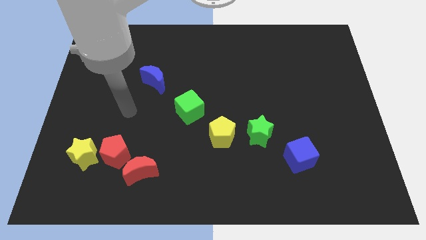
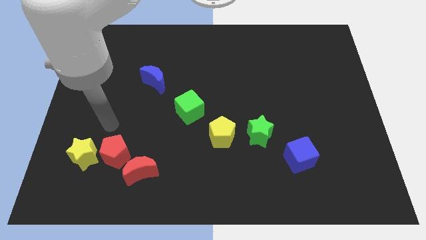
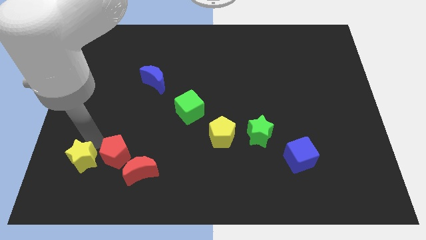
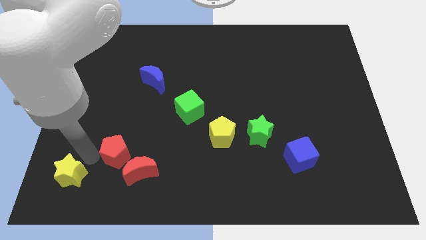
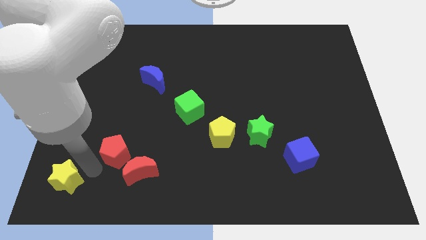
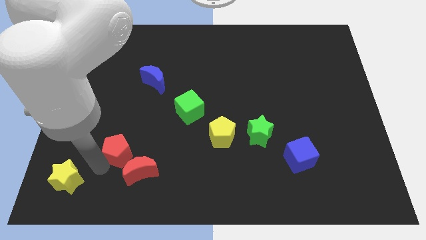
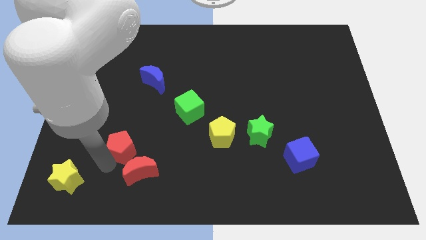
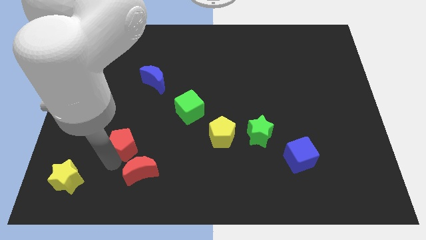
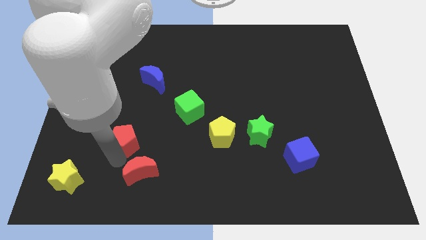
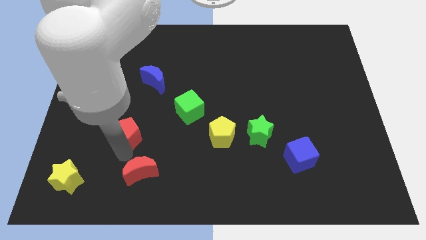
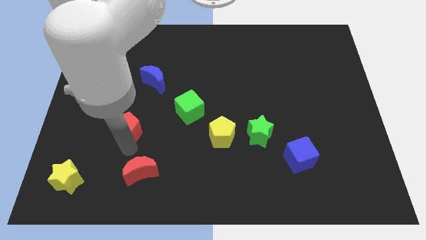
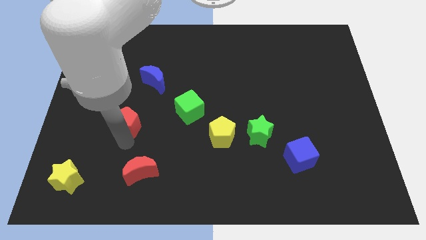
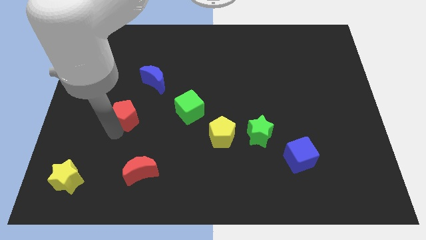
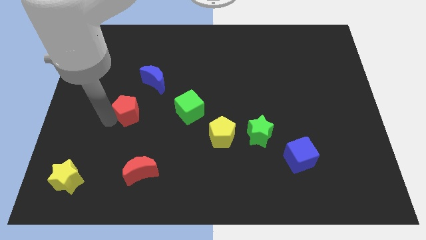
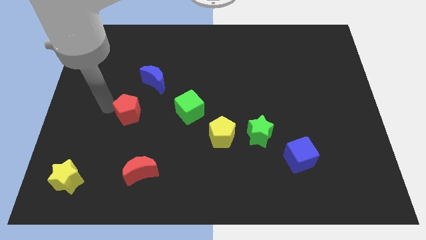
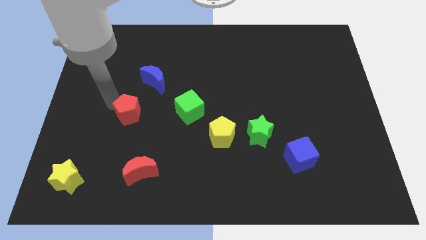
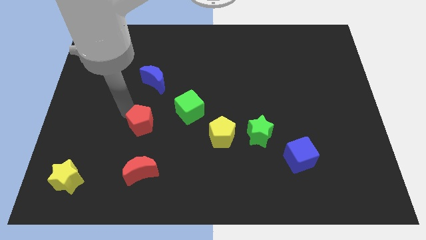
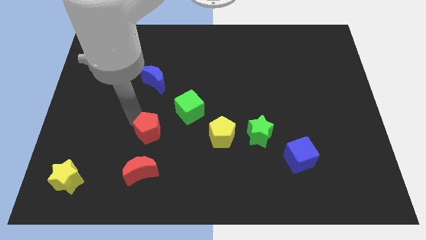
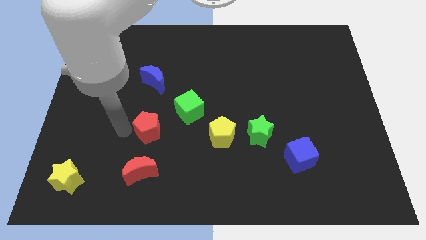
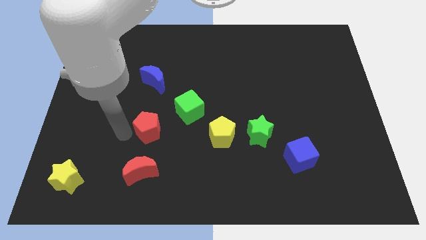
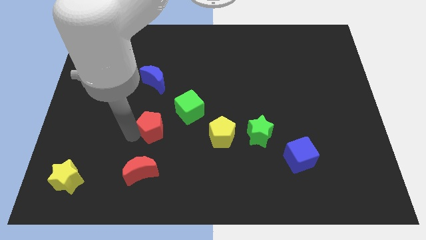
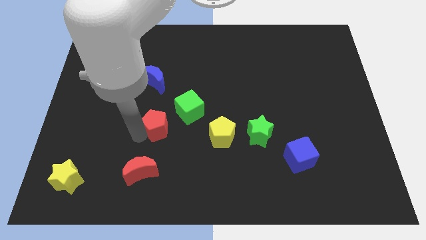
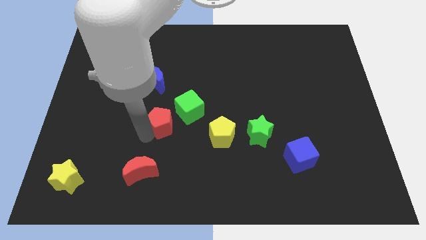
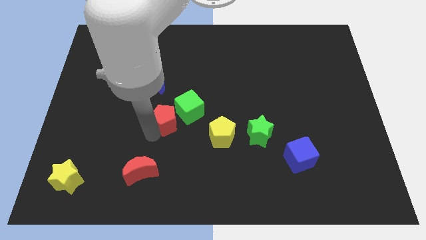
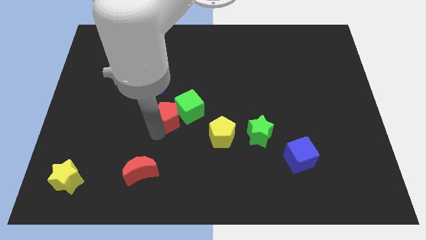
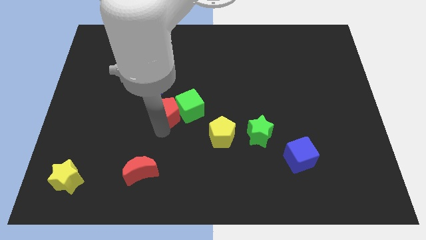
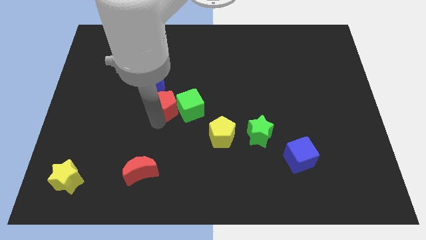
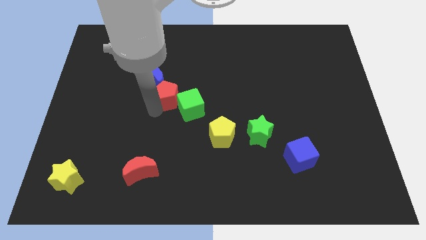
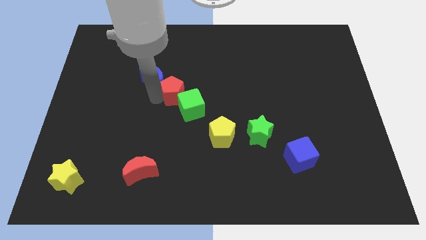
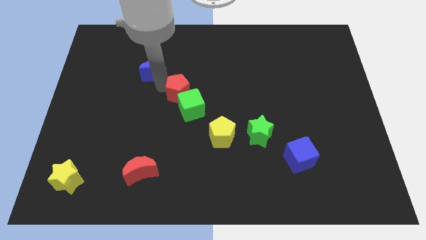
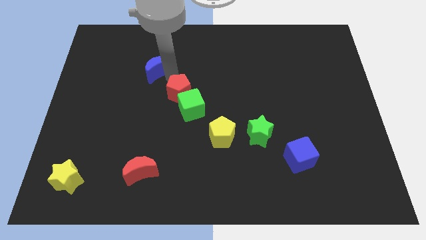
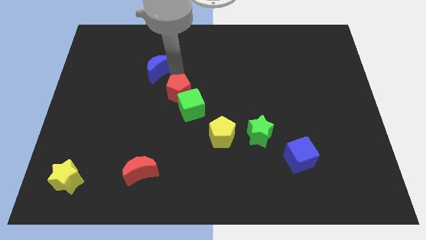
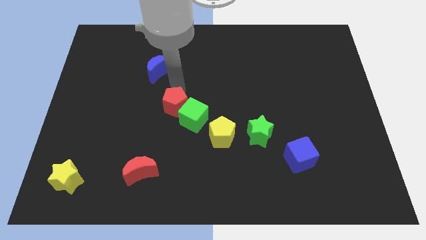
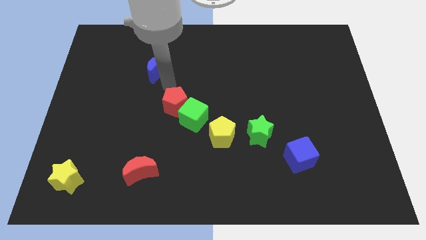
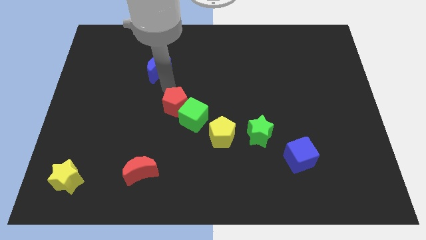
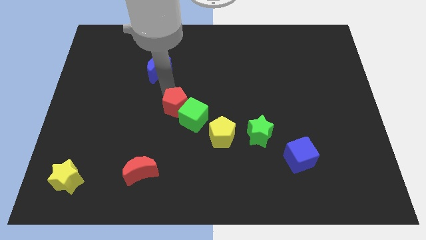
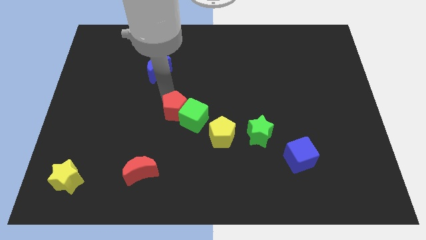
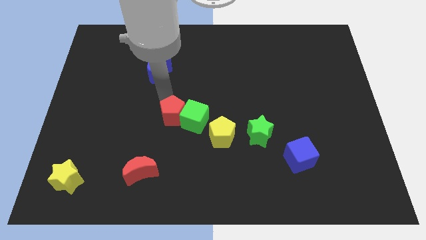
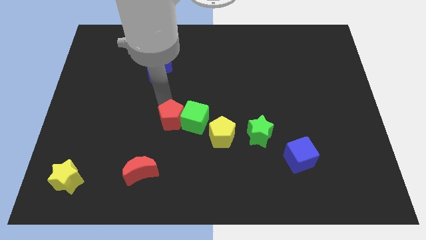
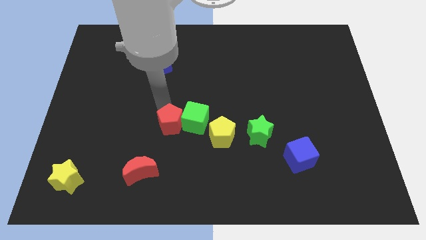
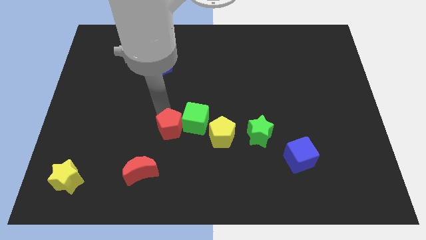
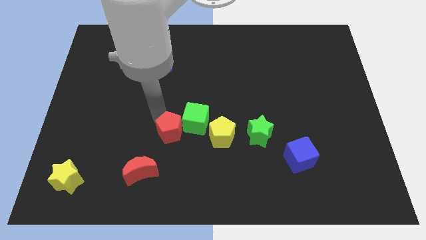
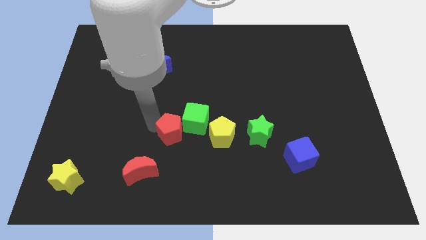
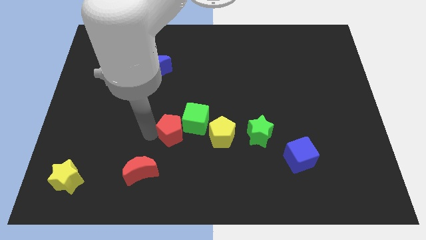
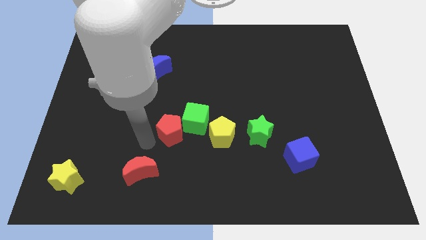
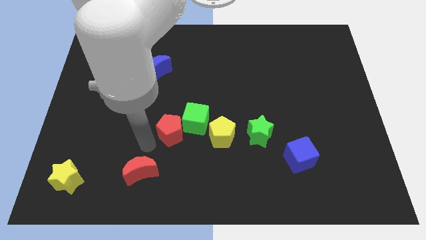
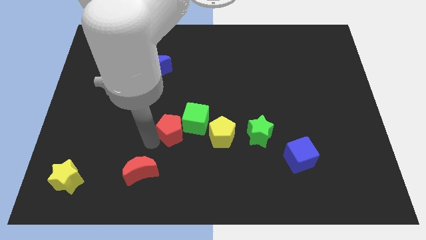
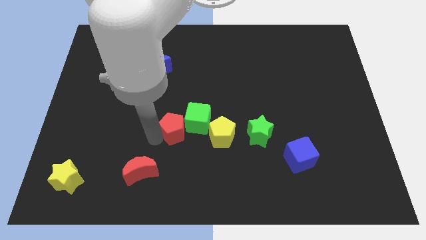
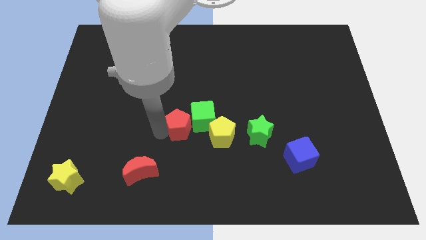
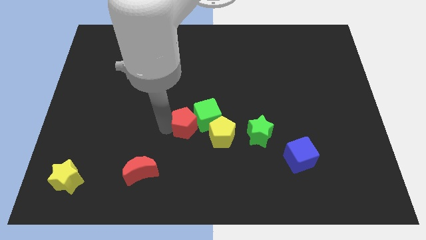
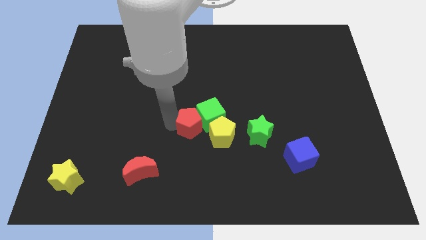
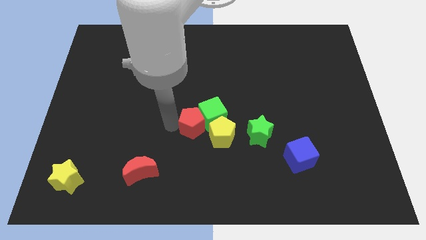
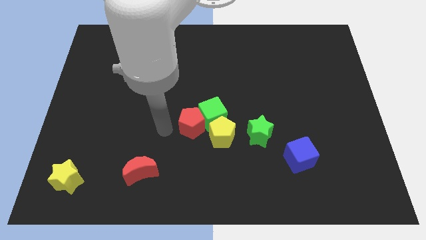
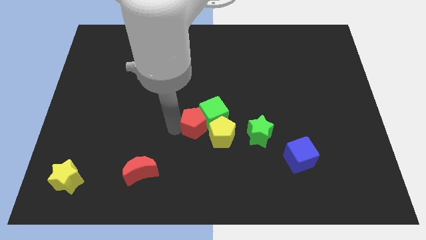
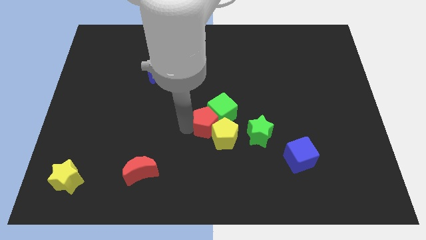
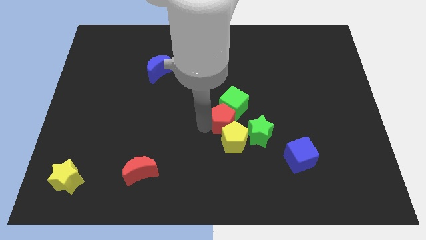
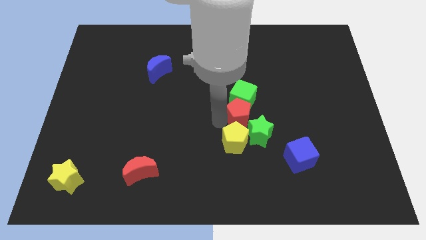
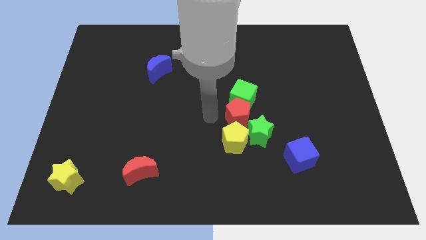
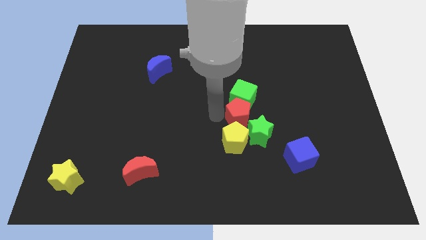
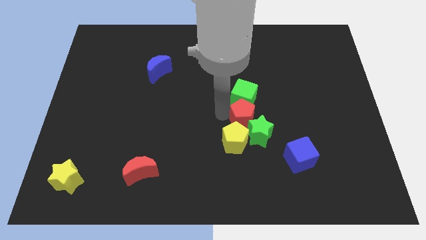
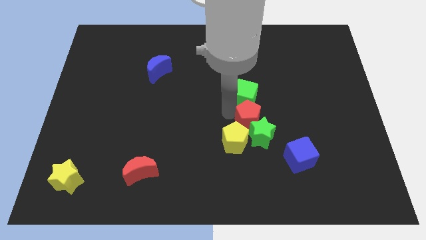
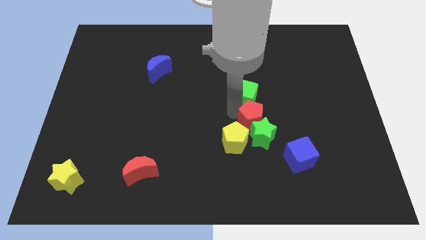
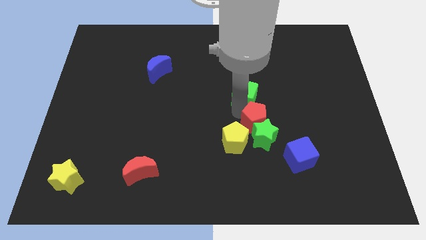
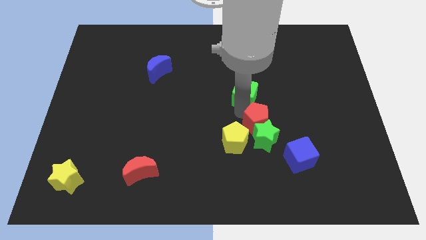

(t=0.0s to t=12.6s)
push the red pentagon to the top right side of the green star

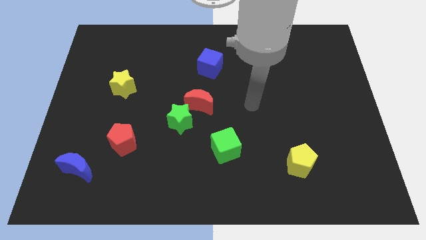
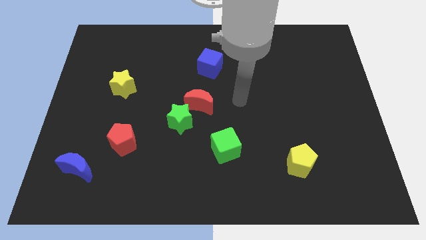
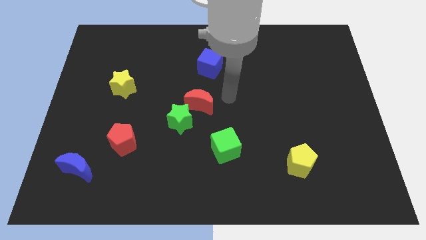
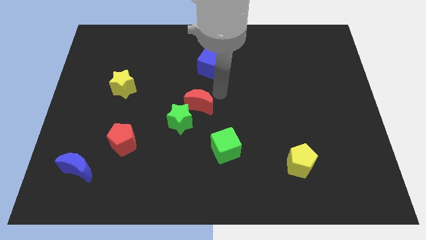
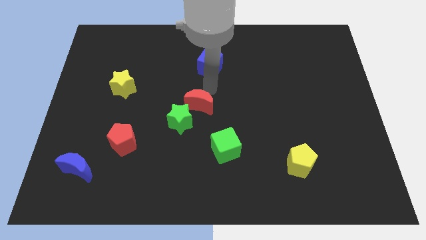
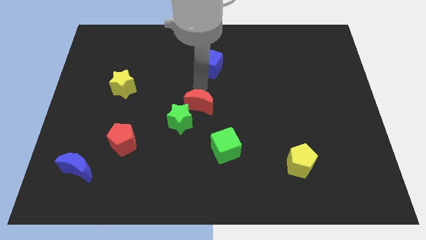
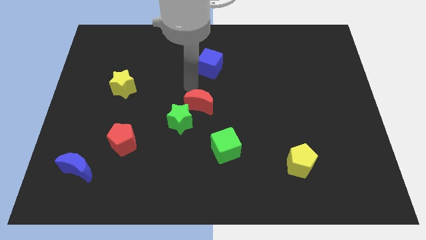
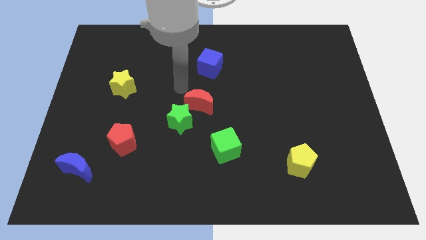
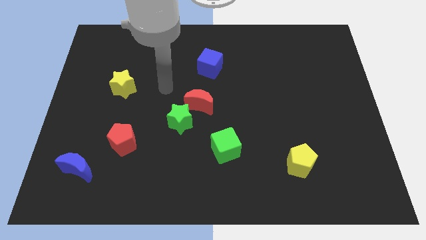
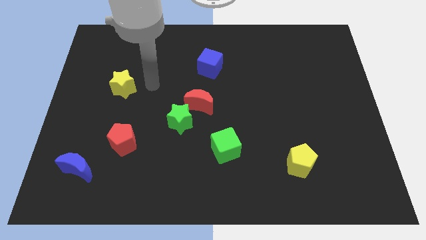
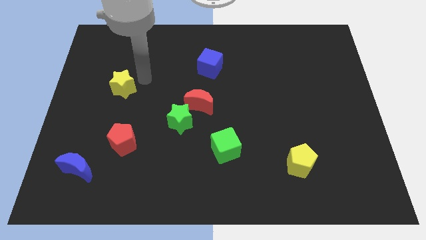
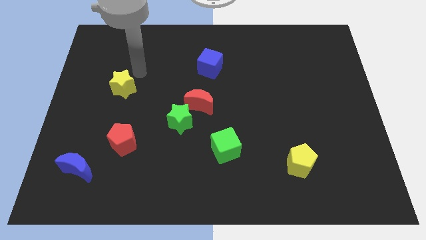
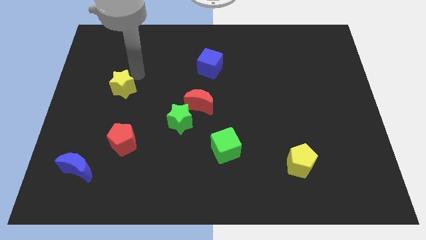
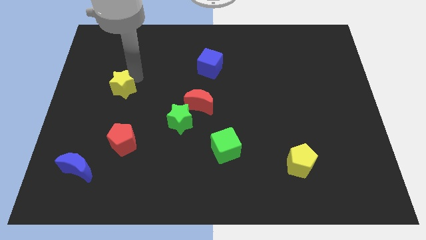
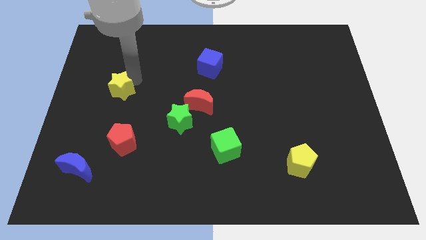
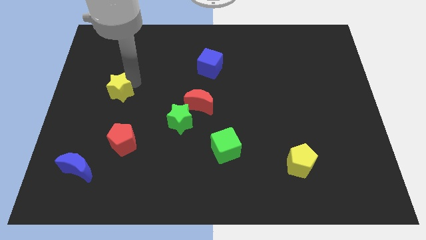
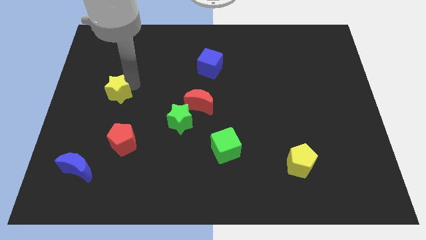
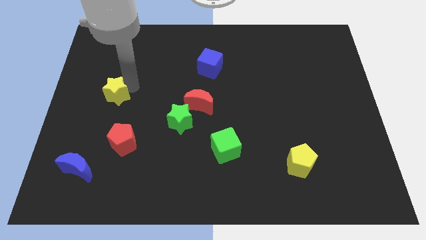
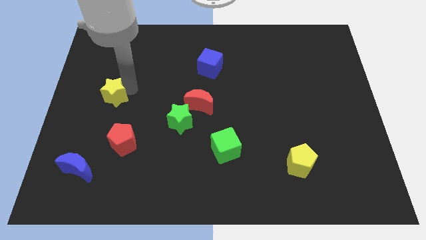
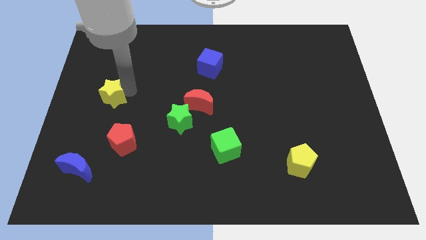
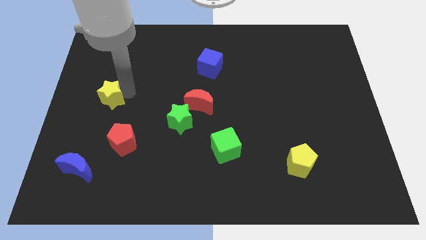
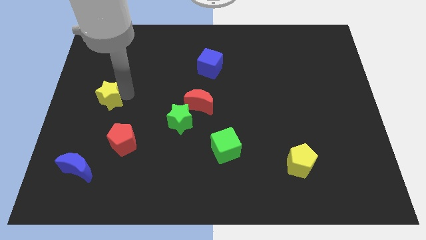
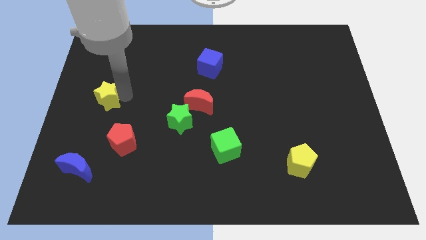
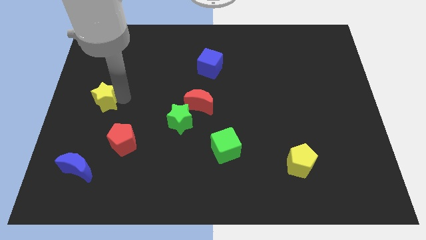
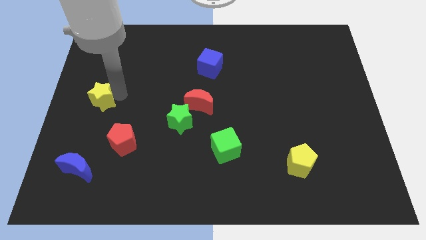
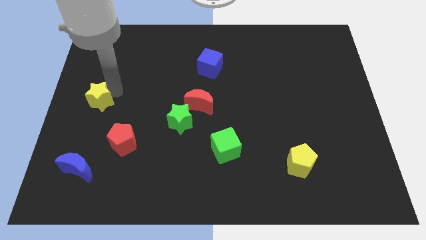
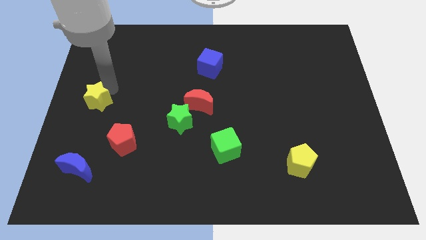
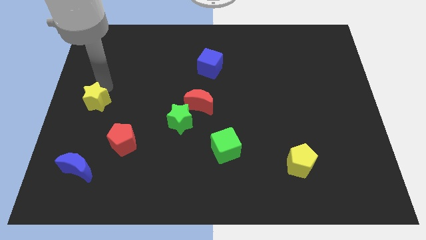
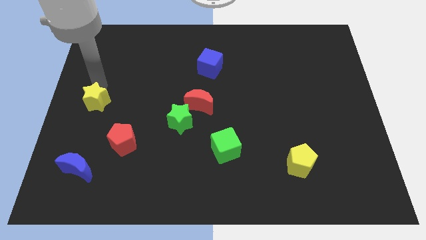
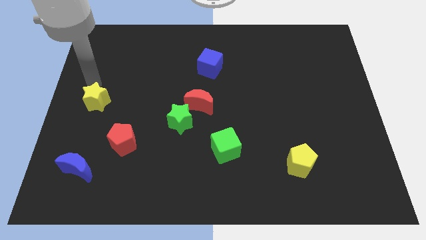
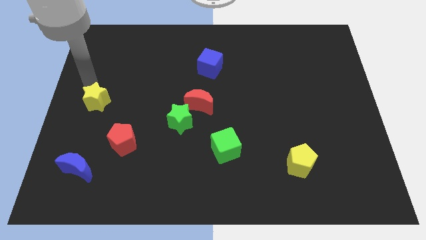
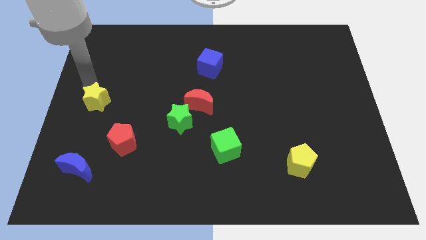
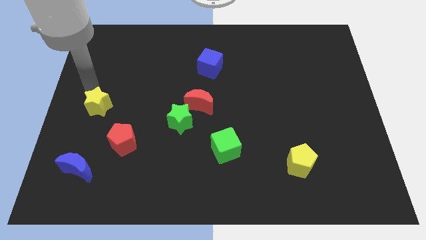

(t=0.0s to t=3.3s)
move the yellow star diagonally up and to the left of the red pentagon
